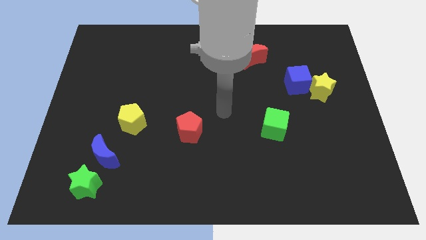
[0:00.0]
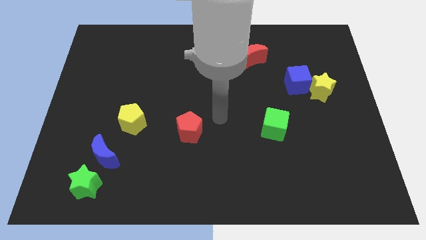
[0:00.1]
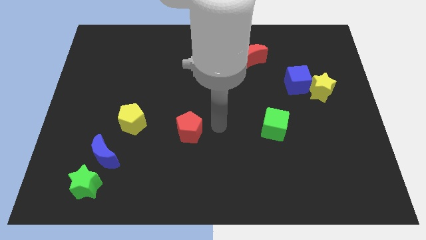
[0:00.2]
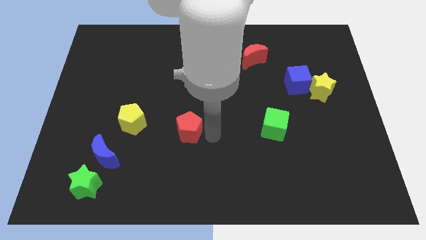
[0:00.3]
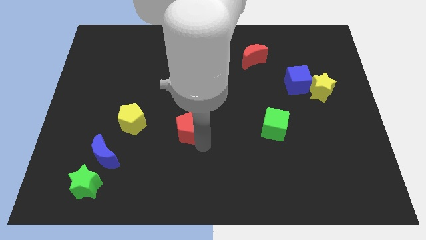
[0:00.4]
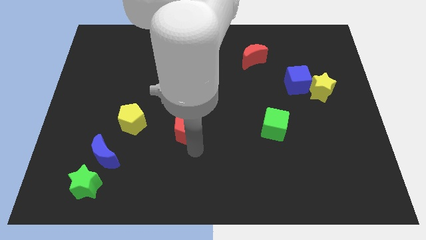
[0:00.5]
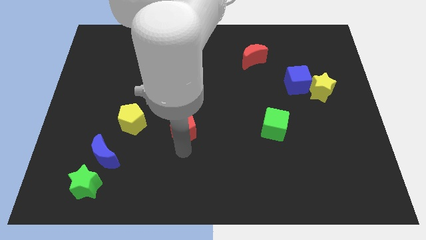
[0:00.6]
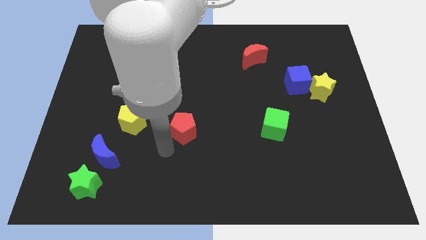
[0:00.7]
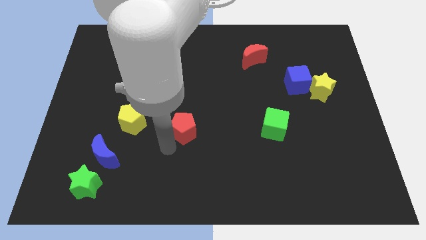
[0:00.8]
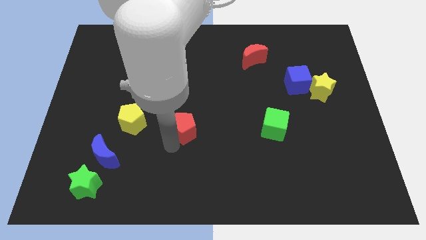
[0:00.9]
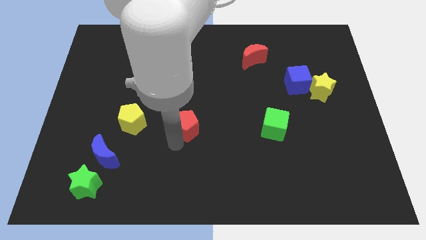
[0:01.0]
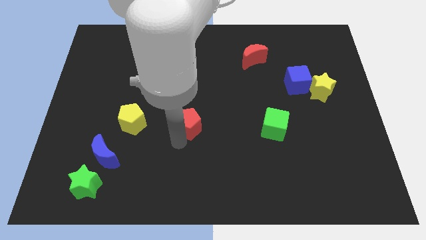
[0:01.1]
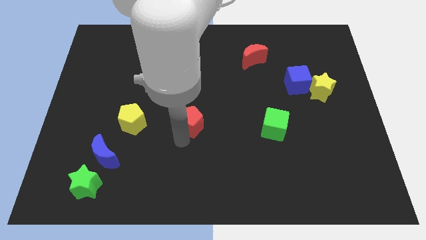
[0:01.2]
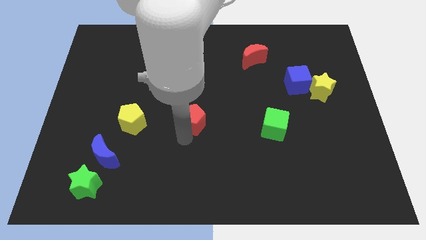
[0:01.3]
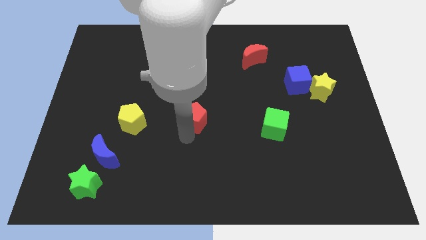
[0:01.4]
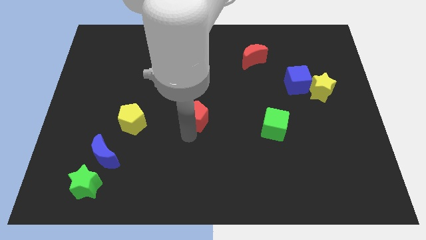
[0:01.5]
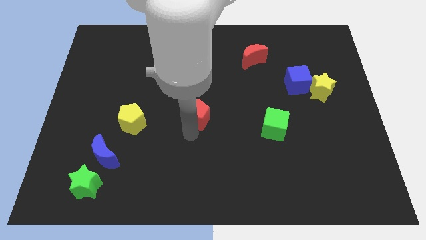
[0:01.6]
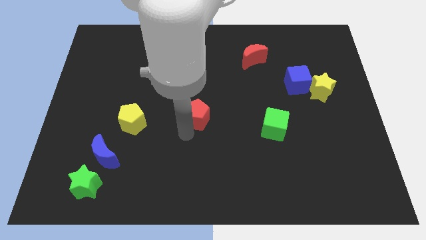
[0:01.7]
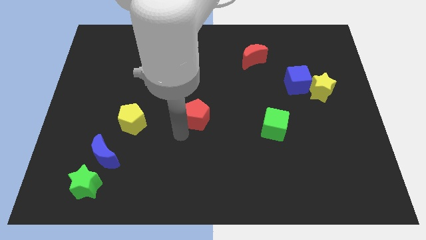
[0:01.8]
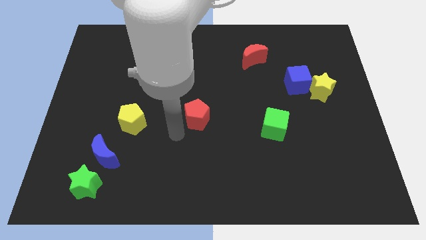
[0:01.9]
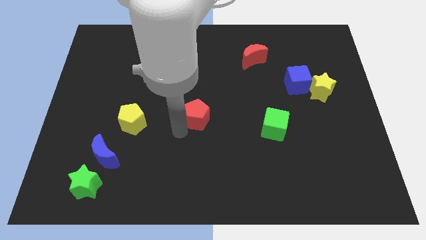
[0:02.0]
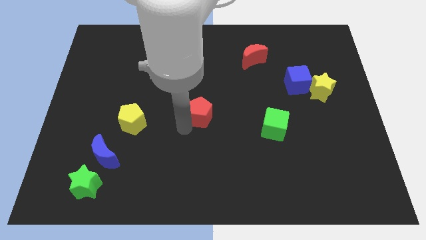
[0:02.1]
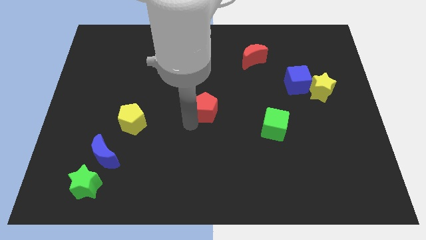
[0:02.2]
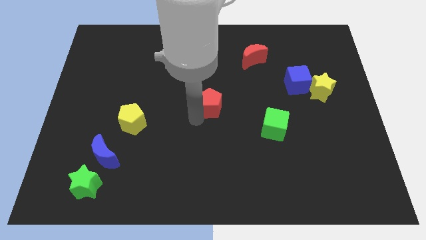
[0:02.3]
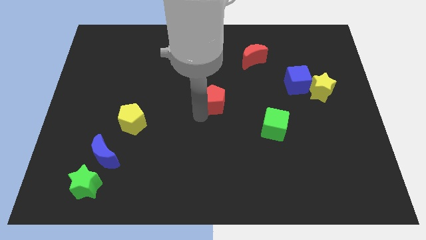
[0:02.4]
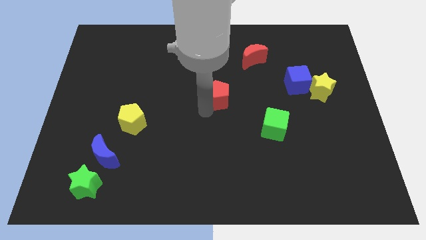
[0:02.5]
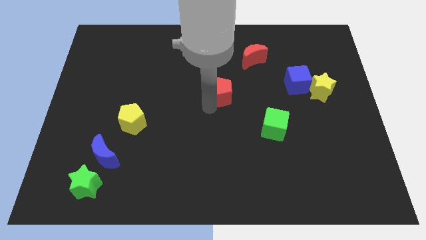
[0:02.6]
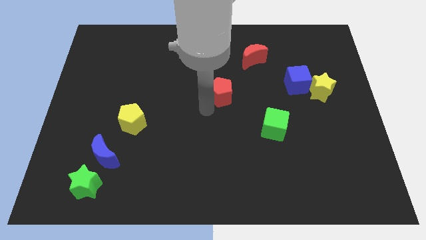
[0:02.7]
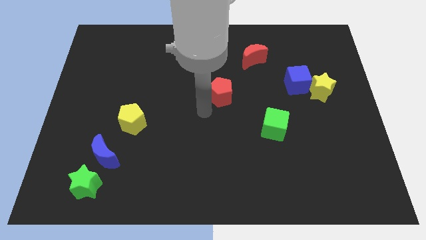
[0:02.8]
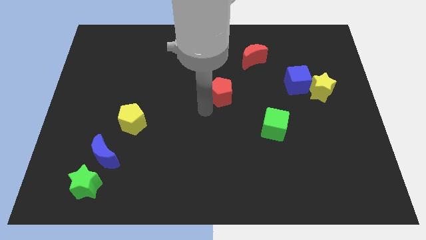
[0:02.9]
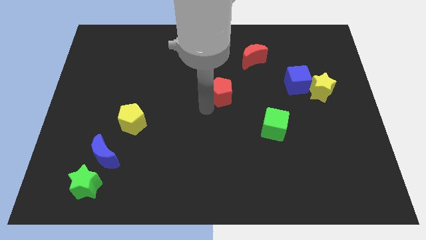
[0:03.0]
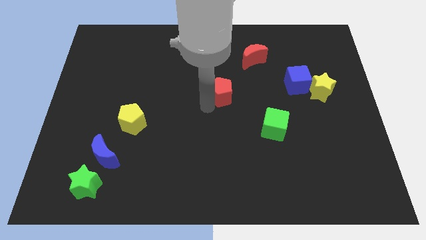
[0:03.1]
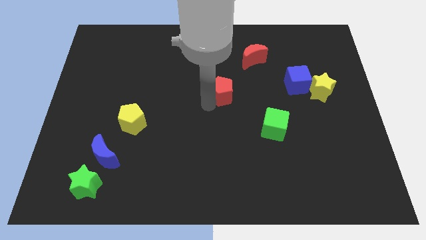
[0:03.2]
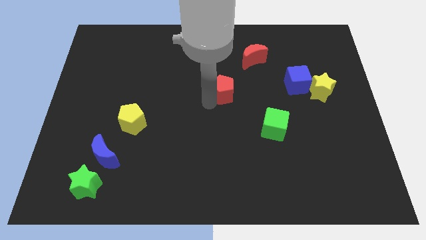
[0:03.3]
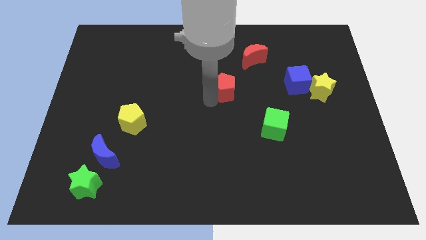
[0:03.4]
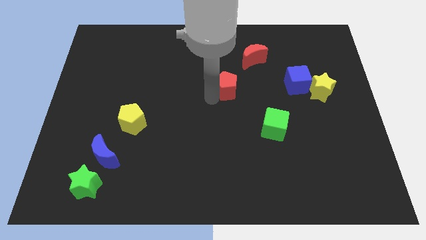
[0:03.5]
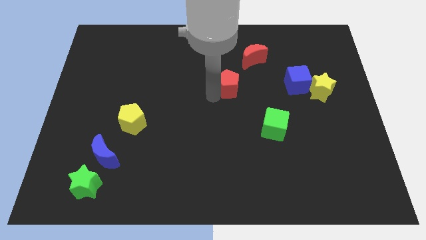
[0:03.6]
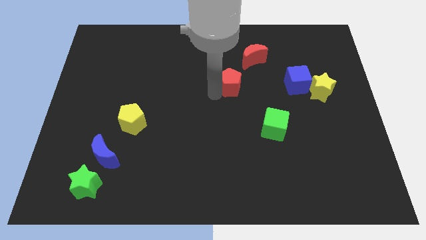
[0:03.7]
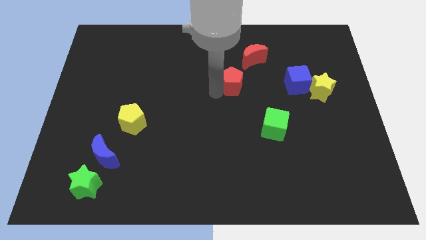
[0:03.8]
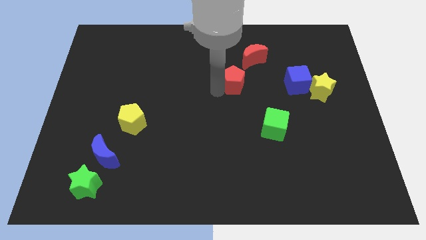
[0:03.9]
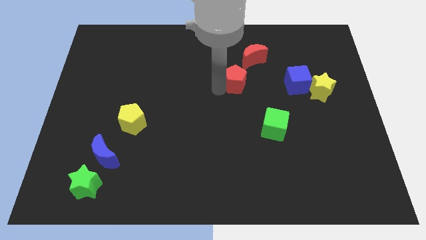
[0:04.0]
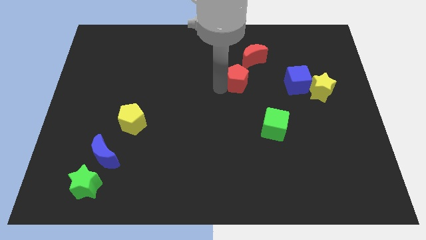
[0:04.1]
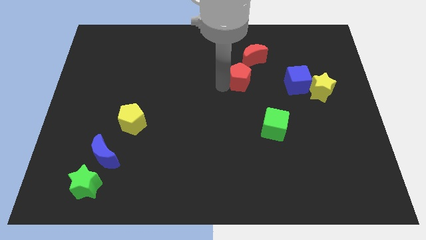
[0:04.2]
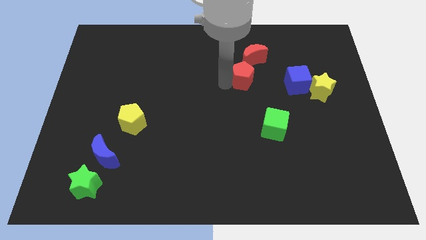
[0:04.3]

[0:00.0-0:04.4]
push the red pentagon up and right

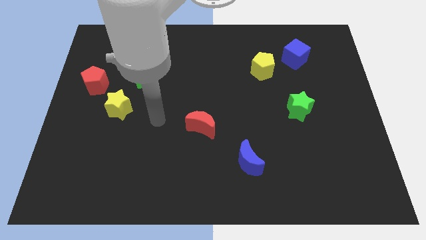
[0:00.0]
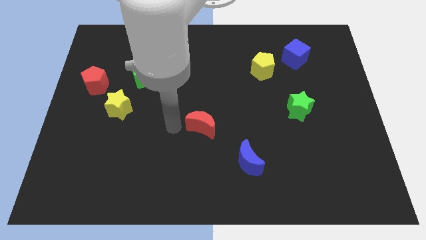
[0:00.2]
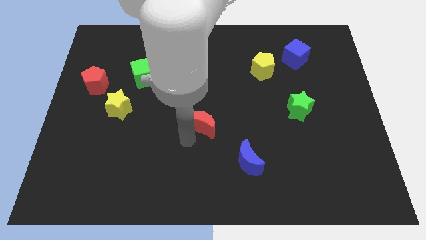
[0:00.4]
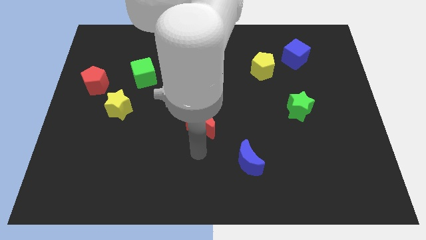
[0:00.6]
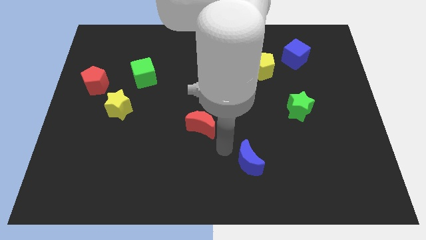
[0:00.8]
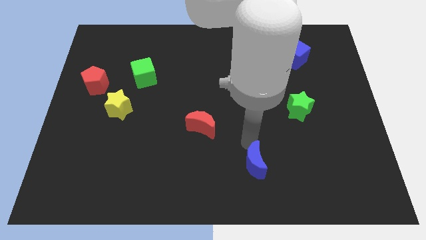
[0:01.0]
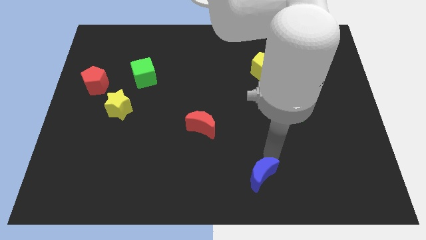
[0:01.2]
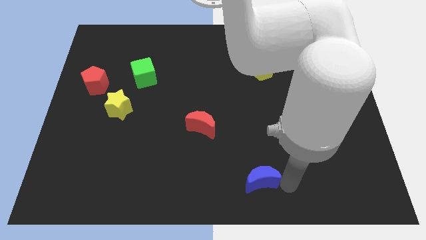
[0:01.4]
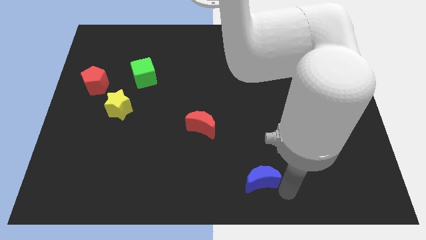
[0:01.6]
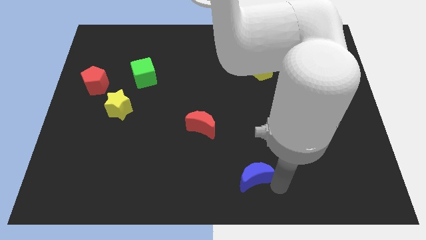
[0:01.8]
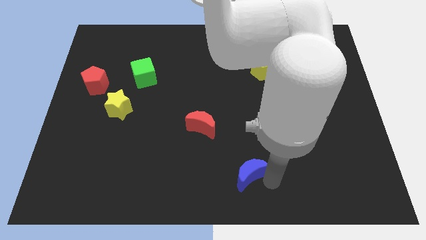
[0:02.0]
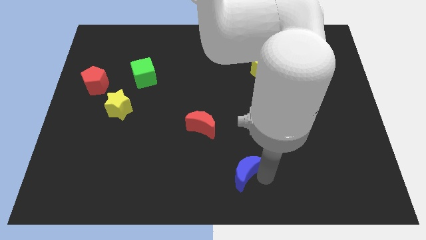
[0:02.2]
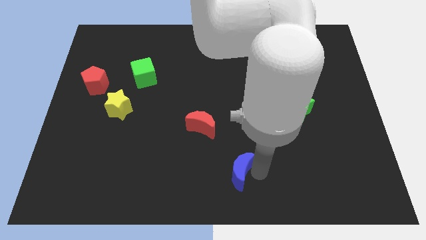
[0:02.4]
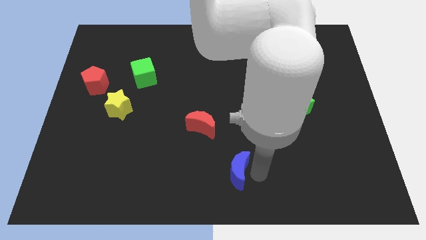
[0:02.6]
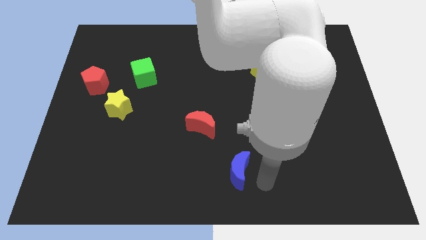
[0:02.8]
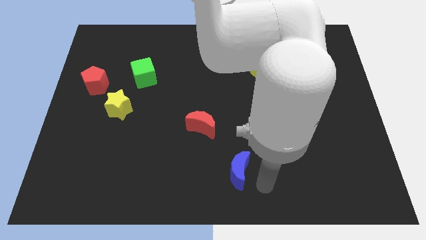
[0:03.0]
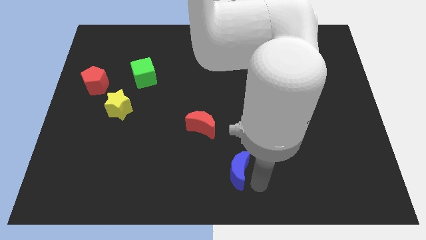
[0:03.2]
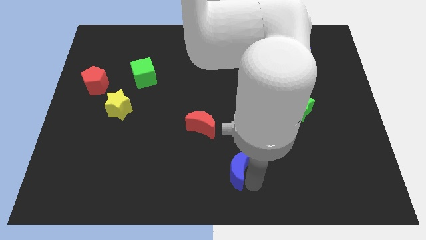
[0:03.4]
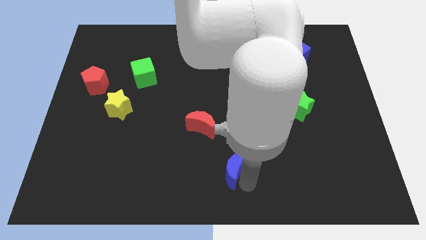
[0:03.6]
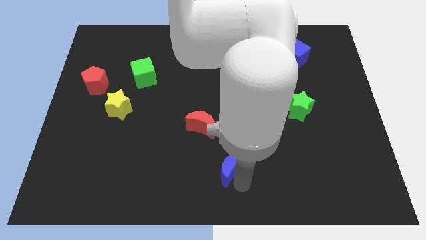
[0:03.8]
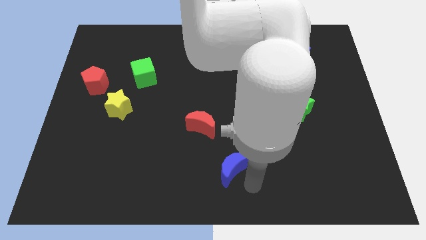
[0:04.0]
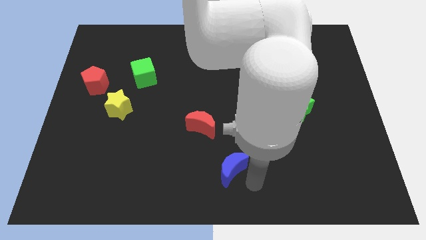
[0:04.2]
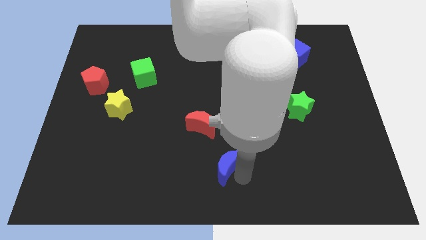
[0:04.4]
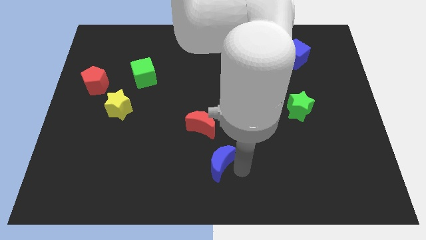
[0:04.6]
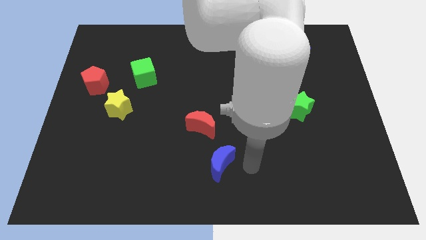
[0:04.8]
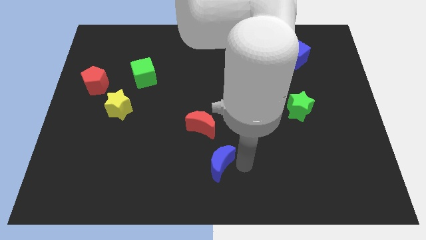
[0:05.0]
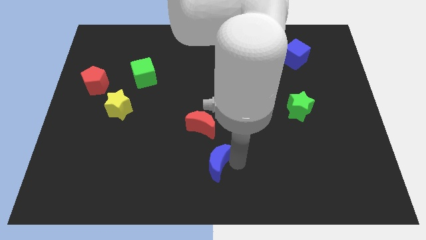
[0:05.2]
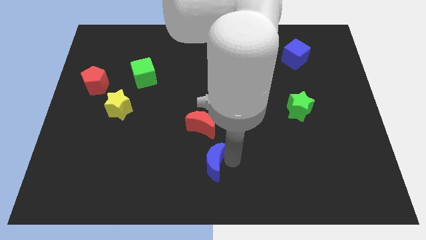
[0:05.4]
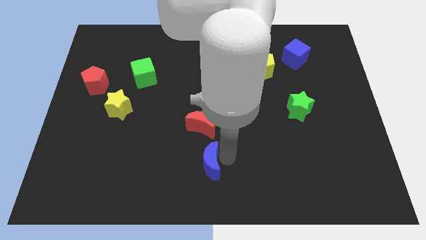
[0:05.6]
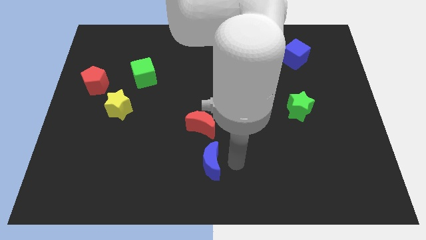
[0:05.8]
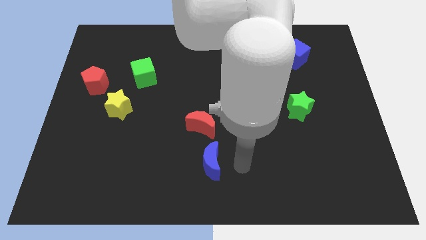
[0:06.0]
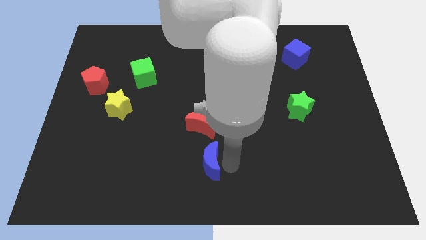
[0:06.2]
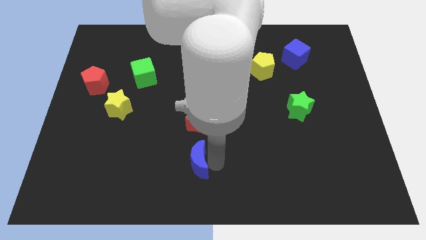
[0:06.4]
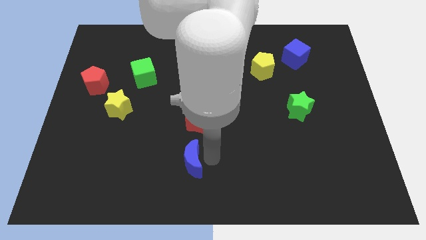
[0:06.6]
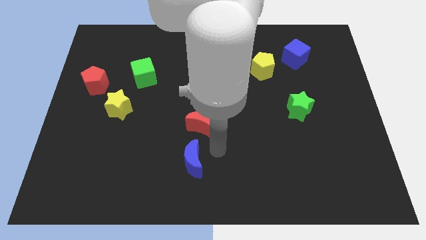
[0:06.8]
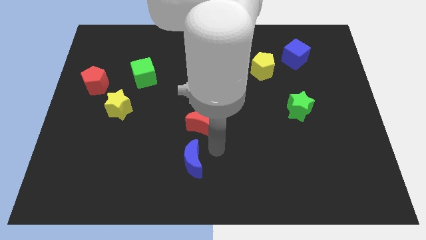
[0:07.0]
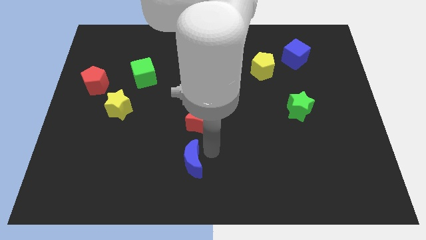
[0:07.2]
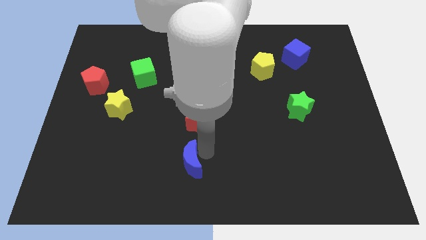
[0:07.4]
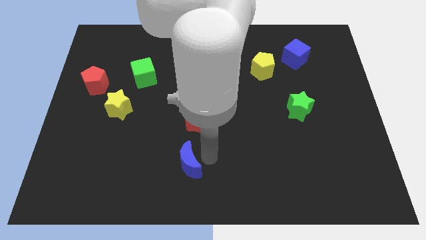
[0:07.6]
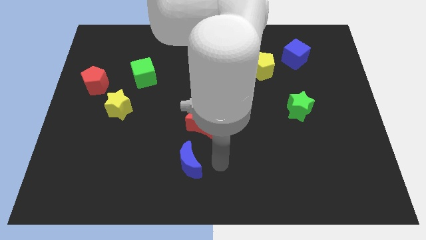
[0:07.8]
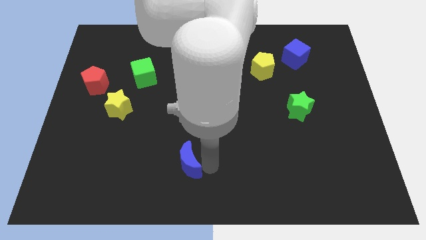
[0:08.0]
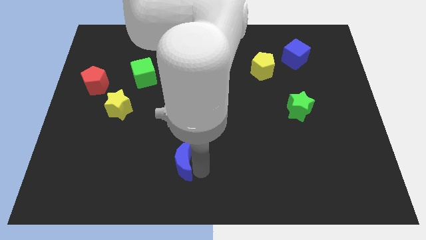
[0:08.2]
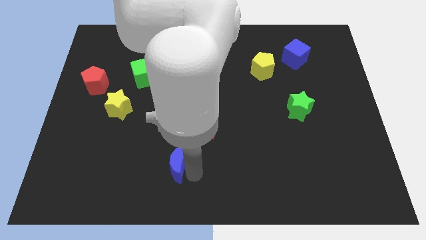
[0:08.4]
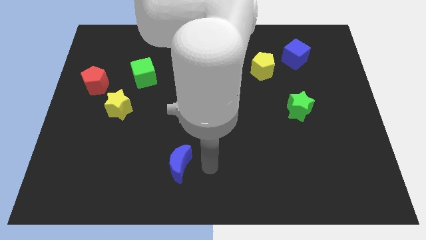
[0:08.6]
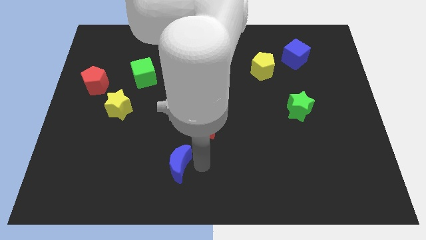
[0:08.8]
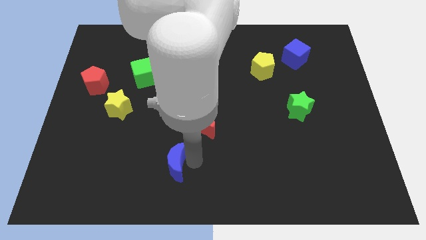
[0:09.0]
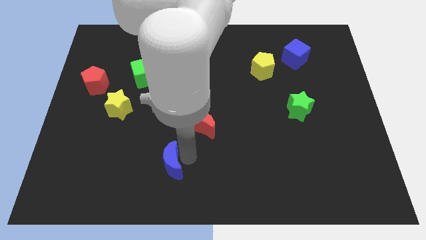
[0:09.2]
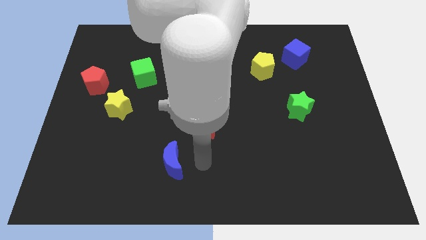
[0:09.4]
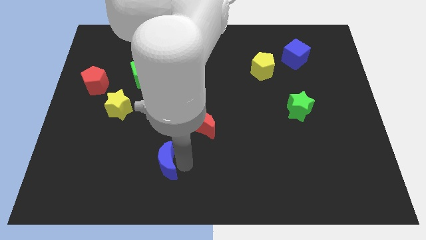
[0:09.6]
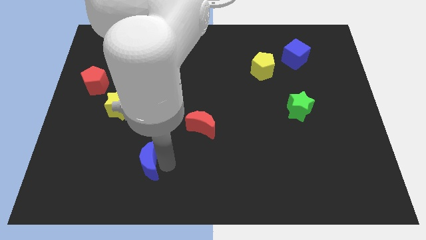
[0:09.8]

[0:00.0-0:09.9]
move the blue moon to the left
